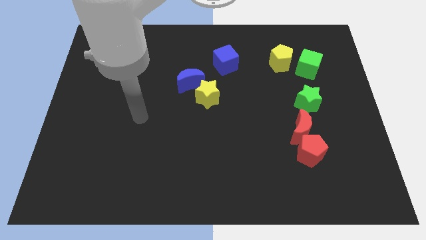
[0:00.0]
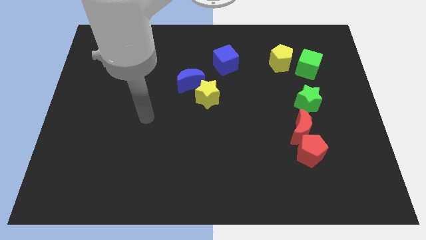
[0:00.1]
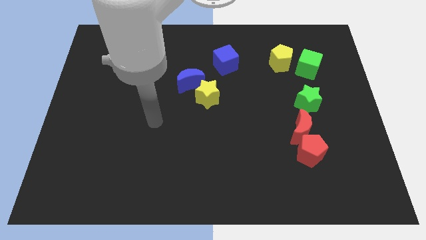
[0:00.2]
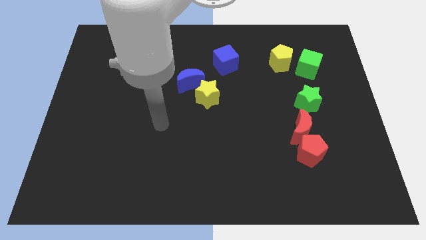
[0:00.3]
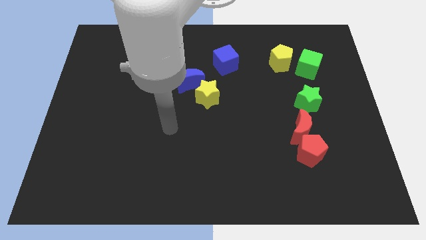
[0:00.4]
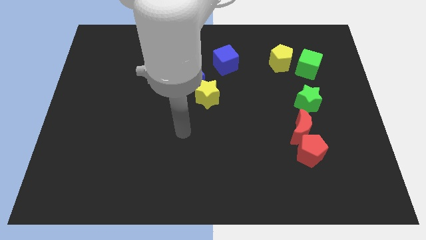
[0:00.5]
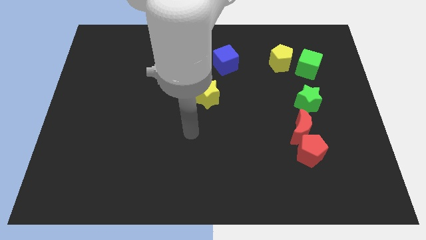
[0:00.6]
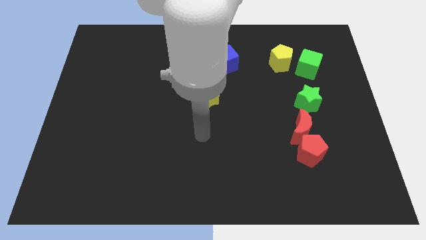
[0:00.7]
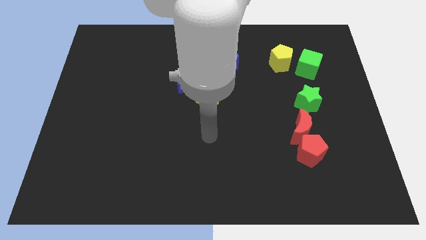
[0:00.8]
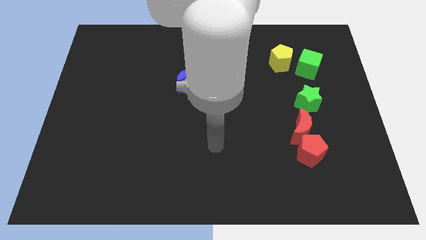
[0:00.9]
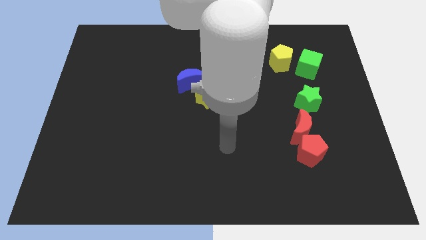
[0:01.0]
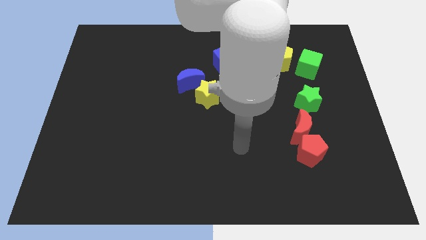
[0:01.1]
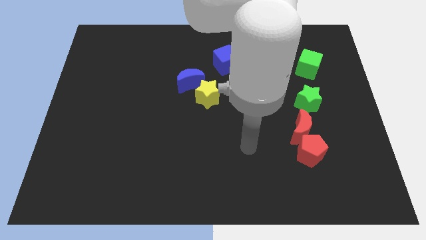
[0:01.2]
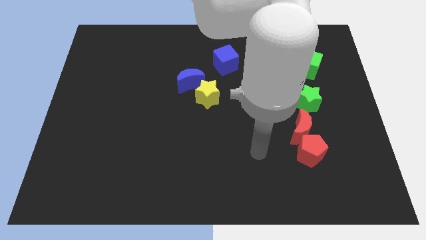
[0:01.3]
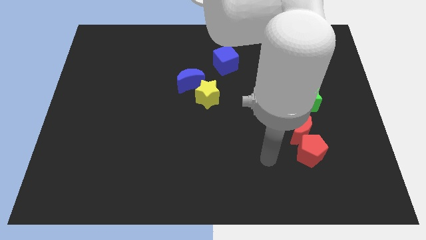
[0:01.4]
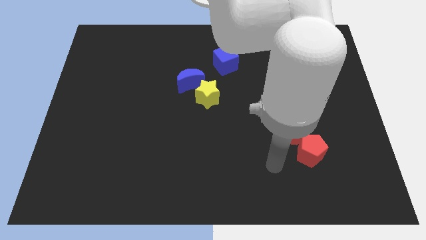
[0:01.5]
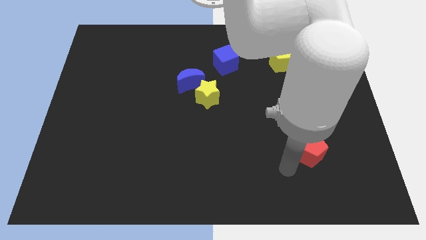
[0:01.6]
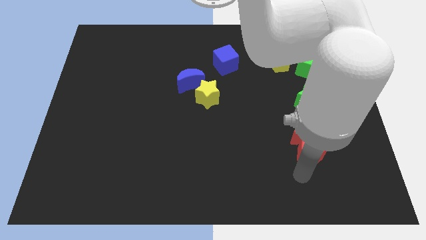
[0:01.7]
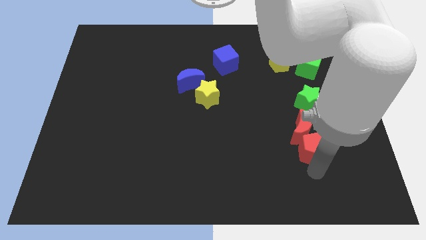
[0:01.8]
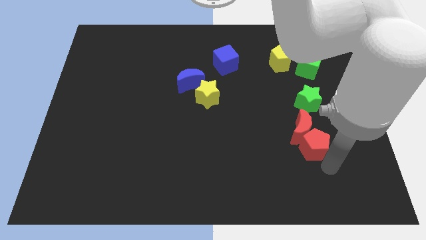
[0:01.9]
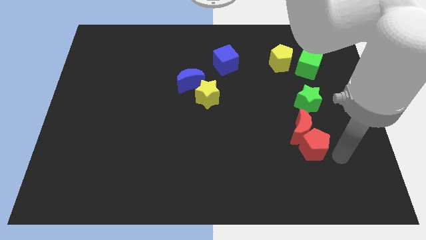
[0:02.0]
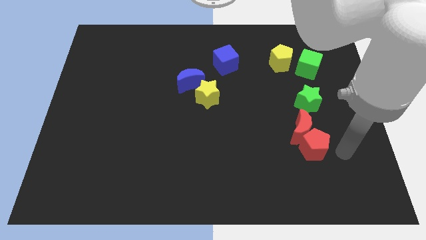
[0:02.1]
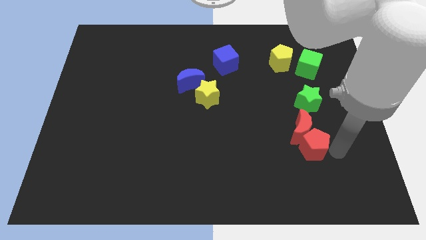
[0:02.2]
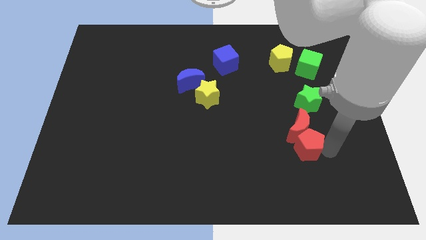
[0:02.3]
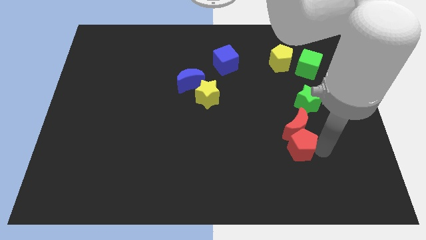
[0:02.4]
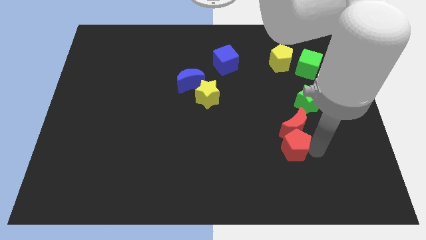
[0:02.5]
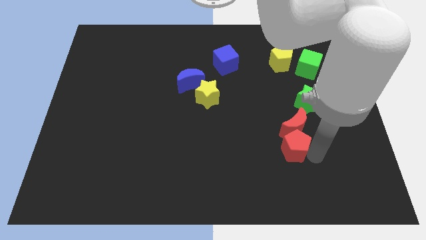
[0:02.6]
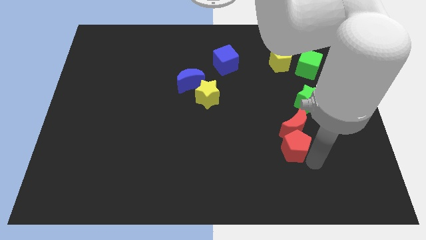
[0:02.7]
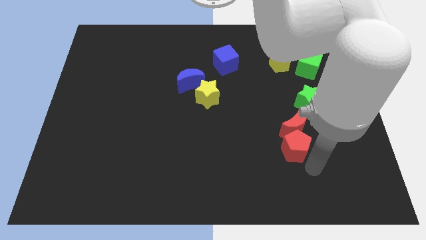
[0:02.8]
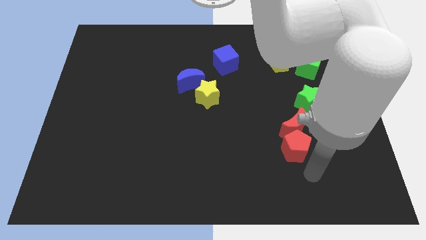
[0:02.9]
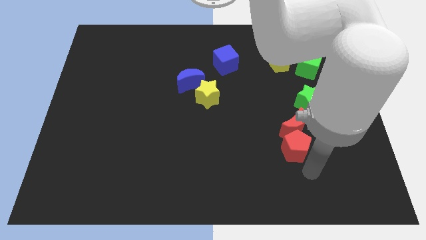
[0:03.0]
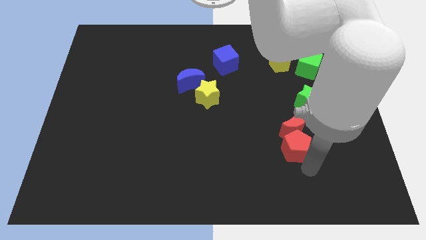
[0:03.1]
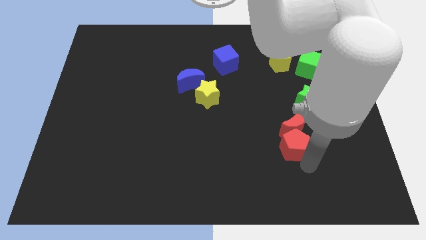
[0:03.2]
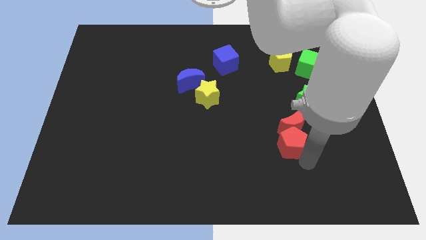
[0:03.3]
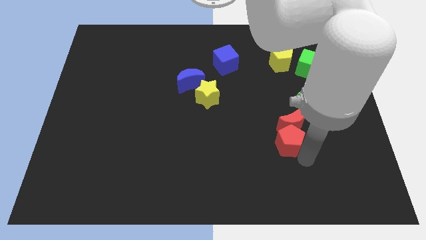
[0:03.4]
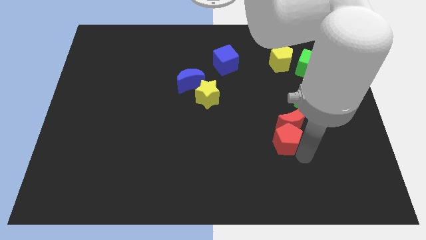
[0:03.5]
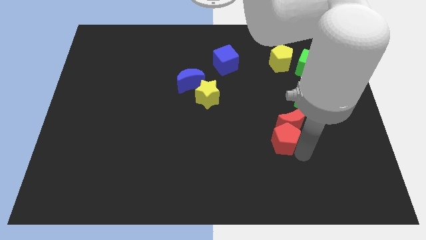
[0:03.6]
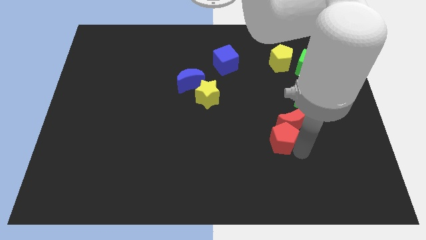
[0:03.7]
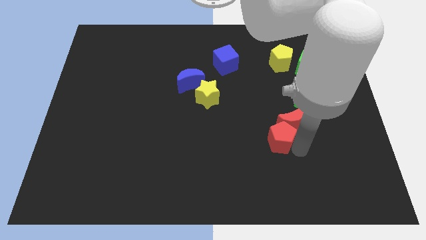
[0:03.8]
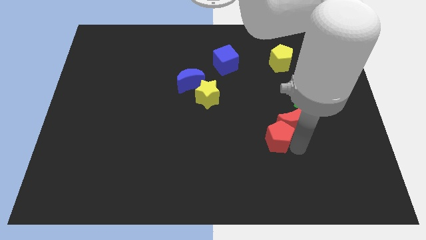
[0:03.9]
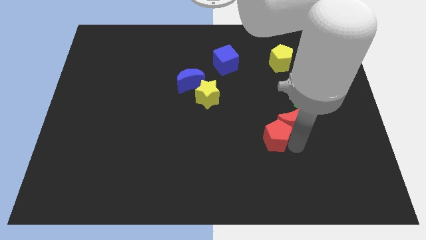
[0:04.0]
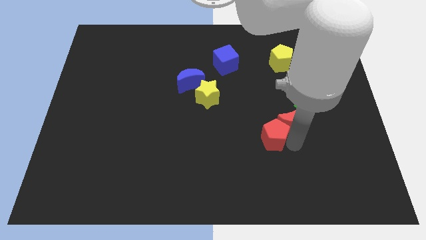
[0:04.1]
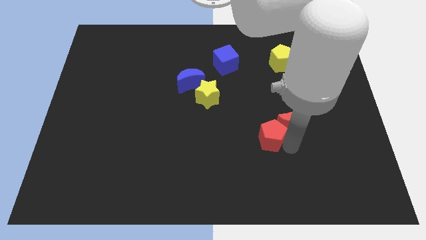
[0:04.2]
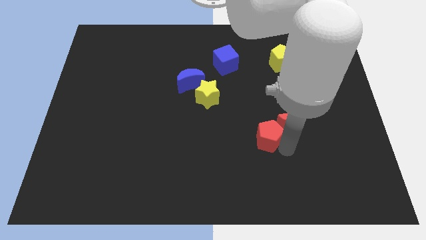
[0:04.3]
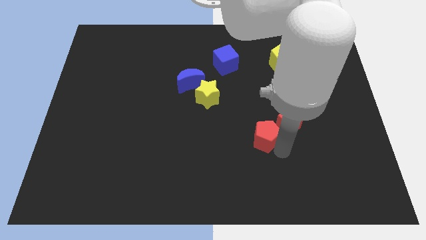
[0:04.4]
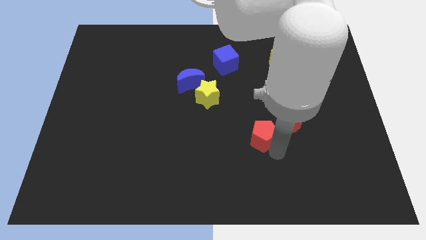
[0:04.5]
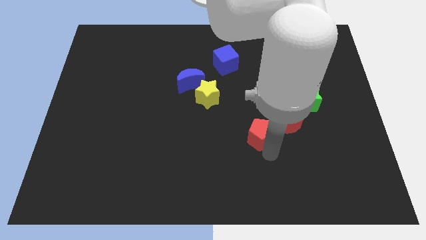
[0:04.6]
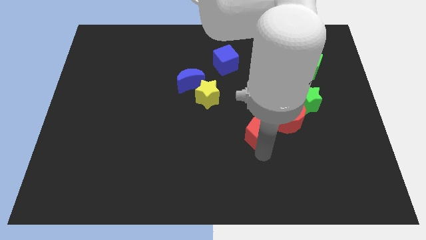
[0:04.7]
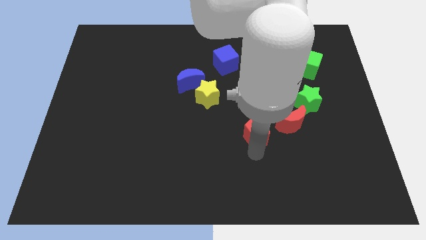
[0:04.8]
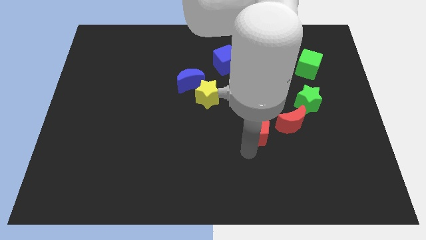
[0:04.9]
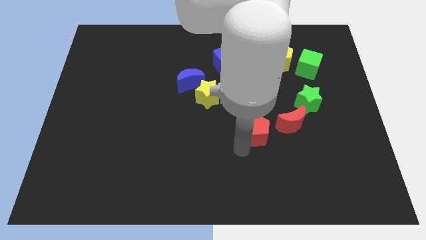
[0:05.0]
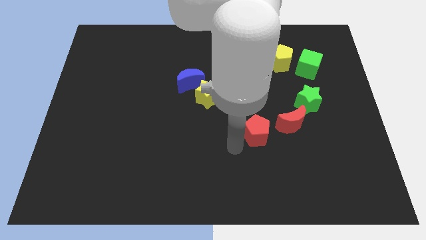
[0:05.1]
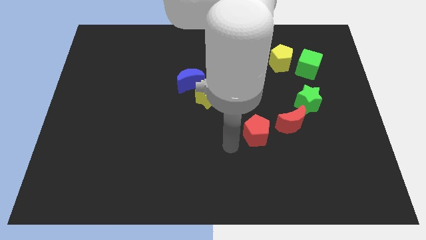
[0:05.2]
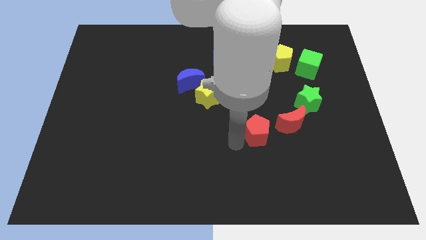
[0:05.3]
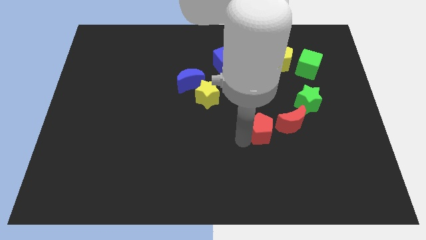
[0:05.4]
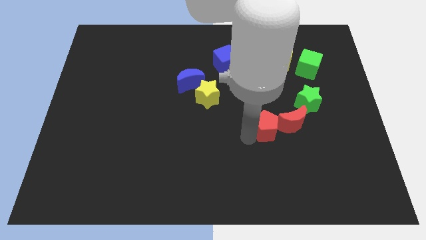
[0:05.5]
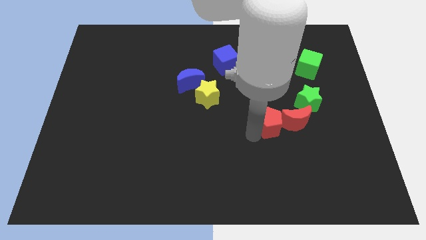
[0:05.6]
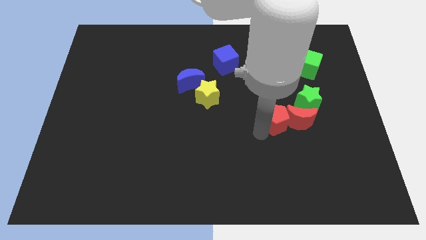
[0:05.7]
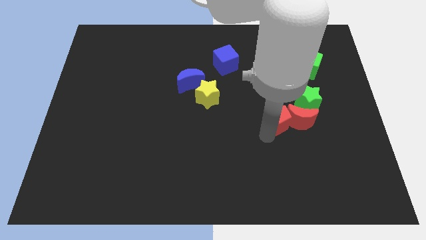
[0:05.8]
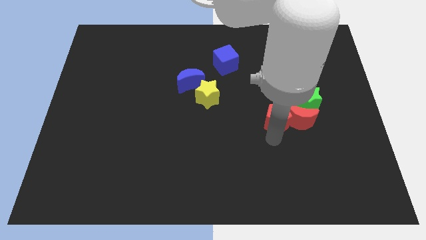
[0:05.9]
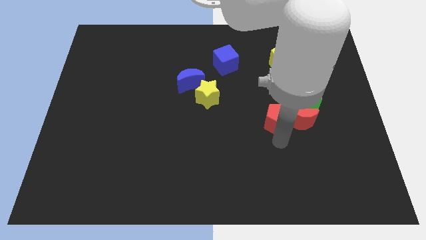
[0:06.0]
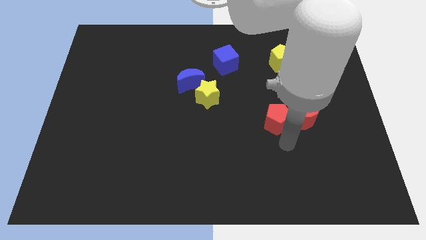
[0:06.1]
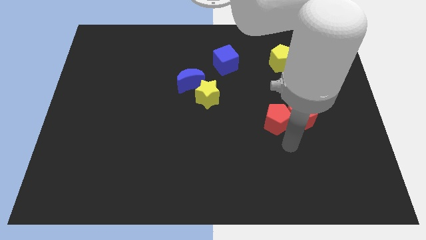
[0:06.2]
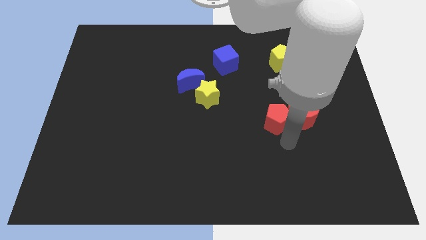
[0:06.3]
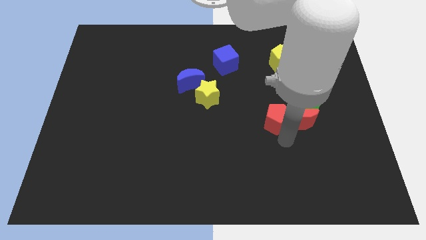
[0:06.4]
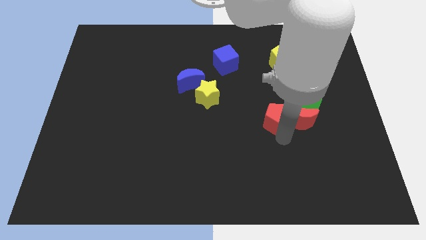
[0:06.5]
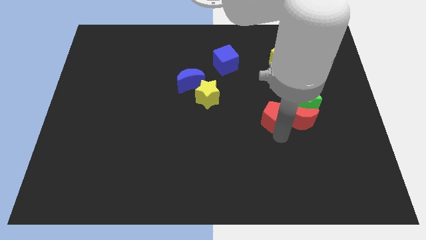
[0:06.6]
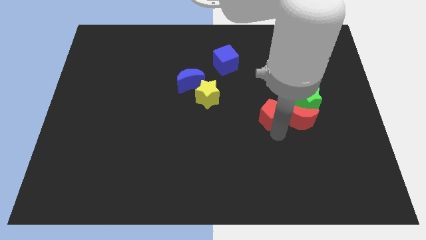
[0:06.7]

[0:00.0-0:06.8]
put the red pentagon to the left of the green star
